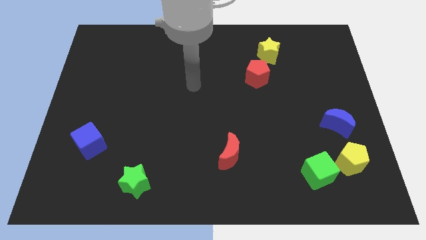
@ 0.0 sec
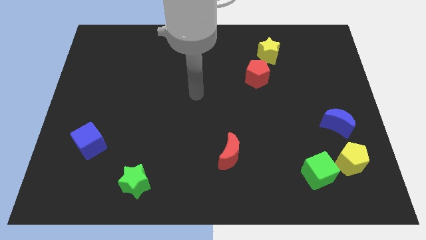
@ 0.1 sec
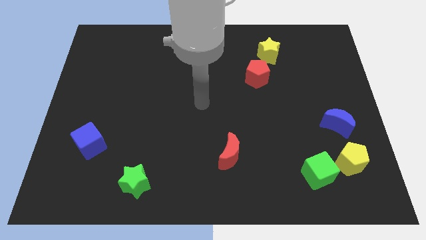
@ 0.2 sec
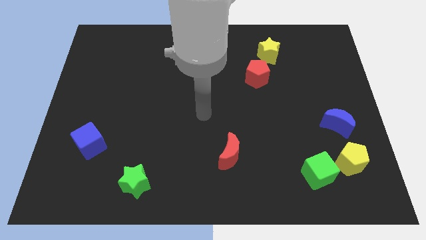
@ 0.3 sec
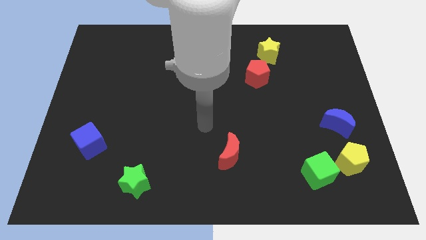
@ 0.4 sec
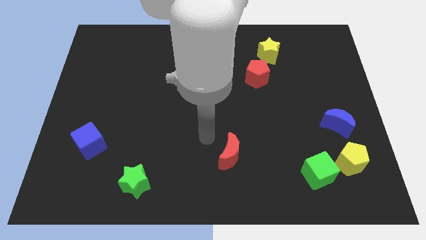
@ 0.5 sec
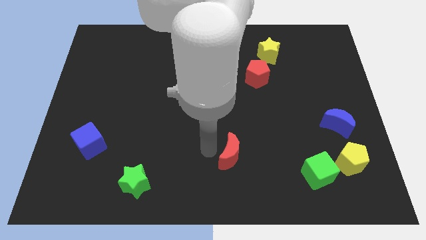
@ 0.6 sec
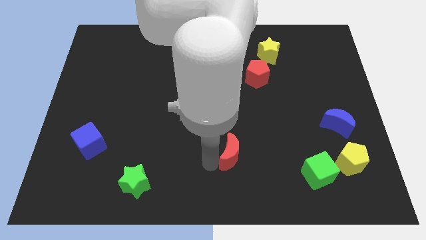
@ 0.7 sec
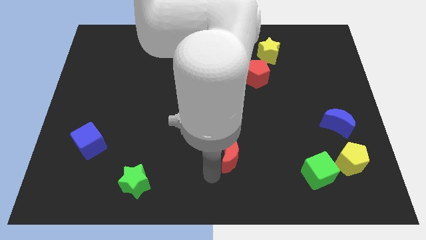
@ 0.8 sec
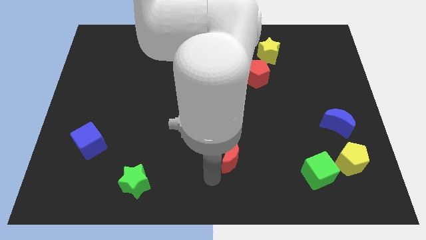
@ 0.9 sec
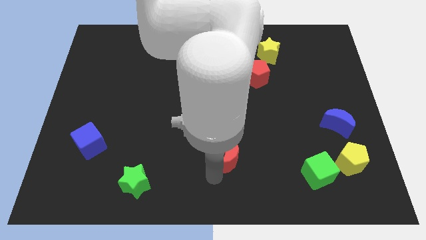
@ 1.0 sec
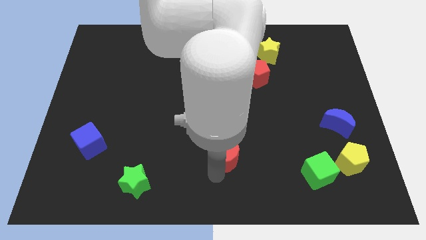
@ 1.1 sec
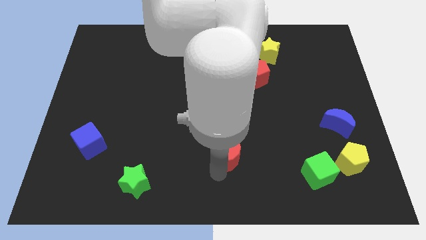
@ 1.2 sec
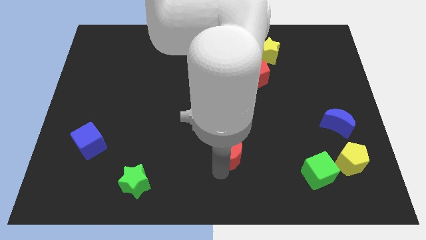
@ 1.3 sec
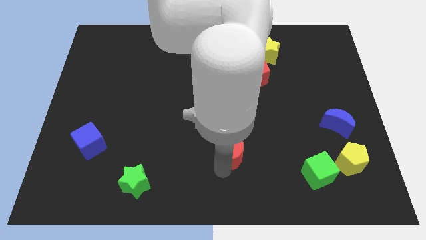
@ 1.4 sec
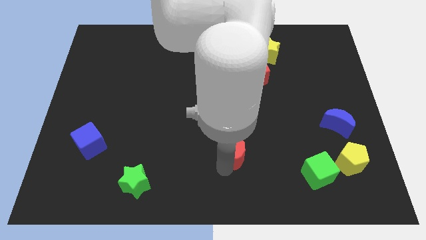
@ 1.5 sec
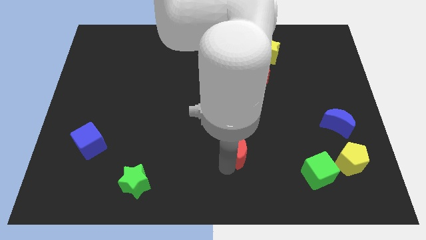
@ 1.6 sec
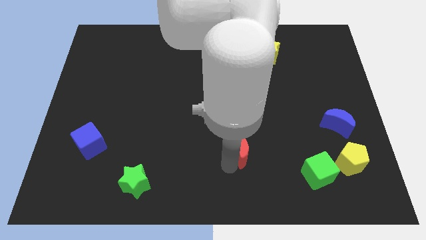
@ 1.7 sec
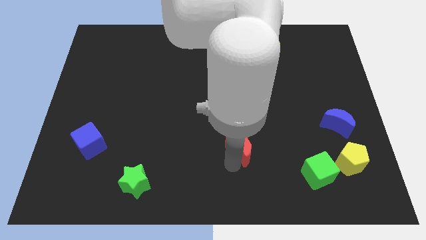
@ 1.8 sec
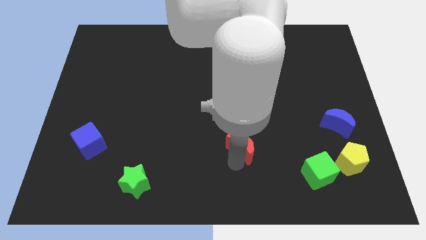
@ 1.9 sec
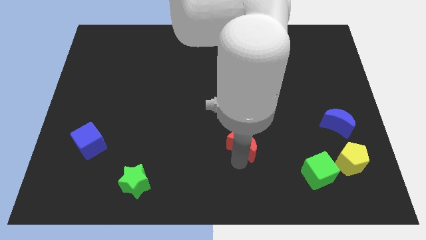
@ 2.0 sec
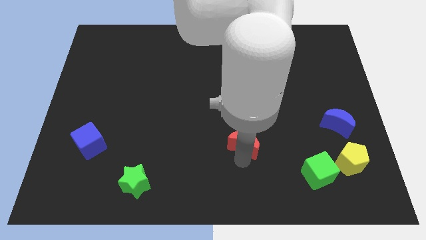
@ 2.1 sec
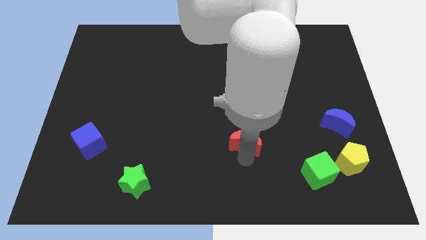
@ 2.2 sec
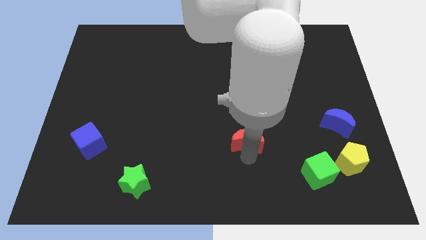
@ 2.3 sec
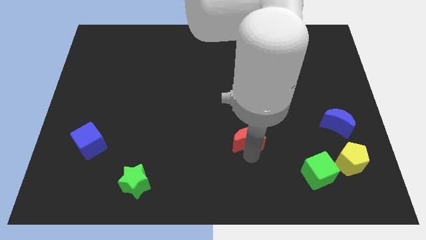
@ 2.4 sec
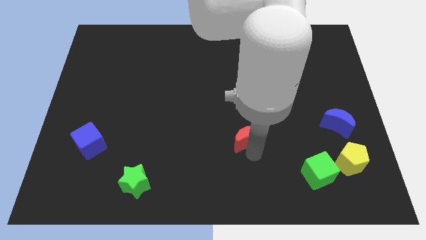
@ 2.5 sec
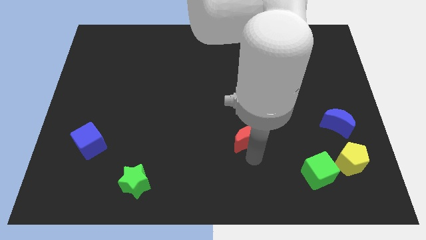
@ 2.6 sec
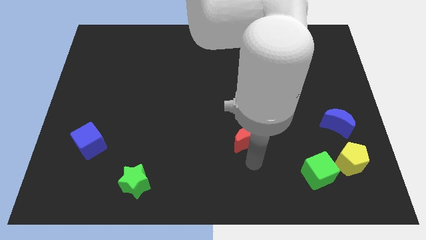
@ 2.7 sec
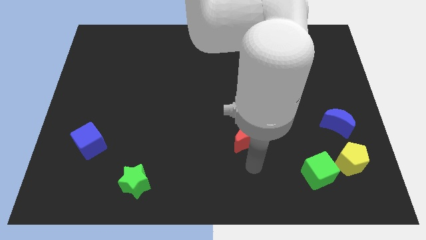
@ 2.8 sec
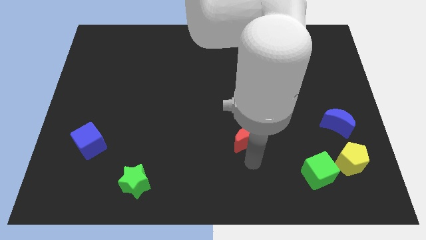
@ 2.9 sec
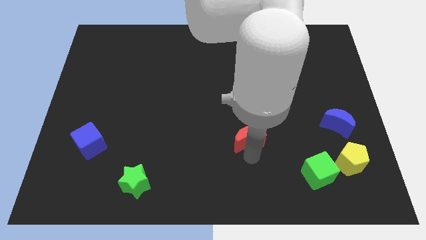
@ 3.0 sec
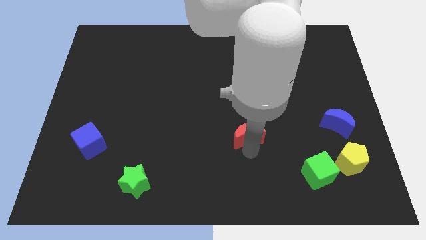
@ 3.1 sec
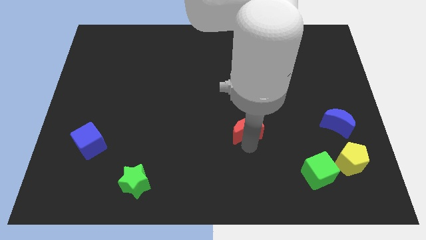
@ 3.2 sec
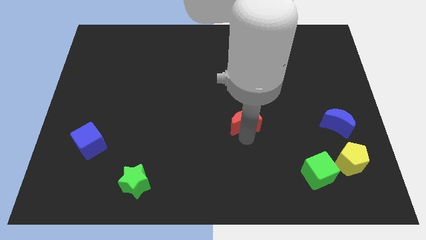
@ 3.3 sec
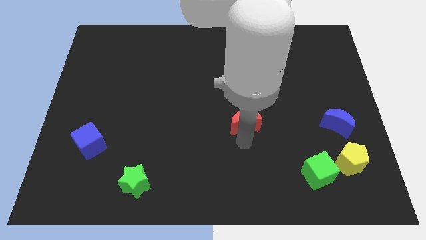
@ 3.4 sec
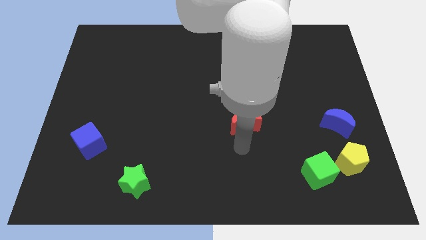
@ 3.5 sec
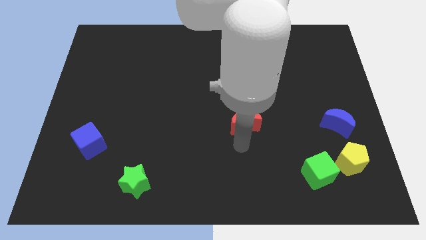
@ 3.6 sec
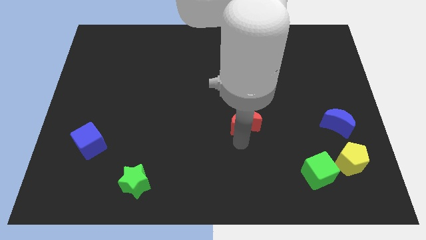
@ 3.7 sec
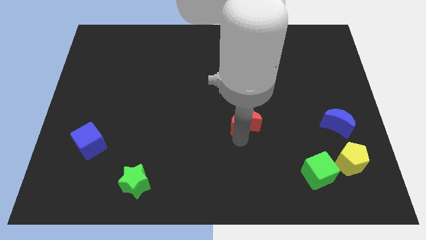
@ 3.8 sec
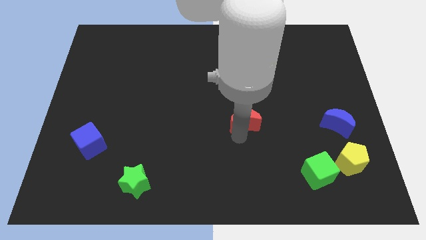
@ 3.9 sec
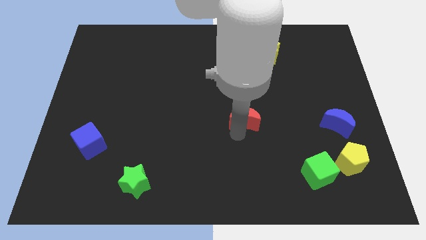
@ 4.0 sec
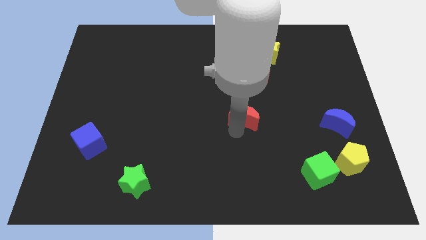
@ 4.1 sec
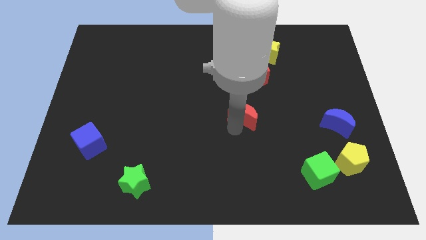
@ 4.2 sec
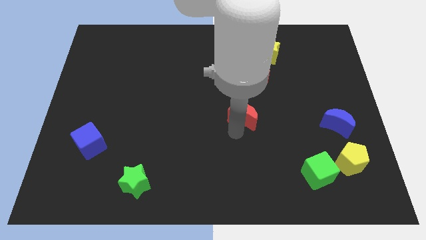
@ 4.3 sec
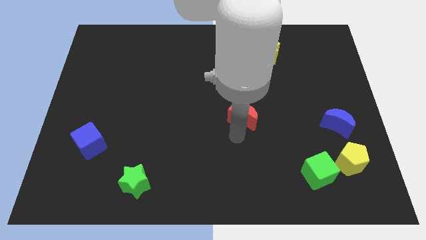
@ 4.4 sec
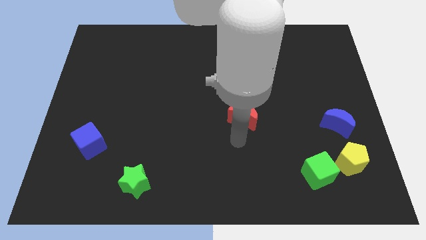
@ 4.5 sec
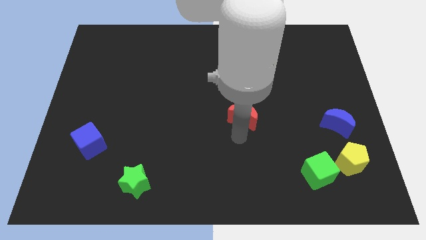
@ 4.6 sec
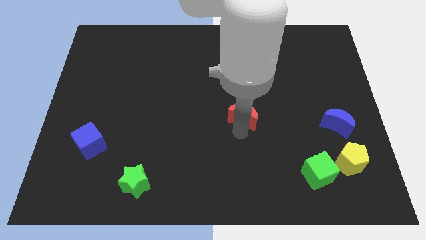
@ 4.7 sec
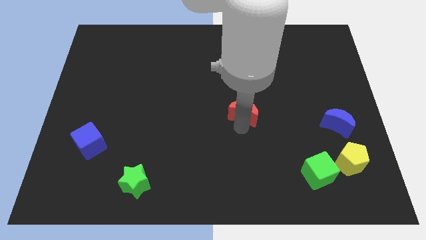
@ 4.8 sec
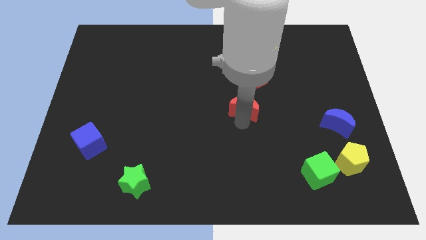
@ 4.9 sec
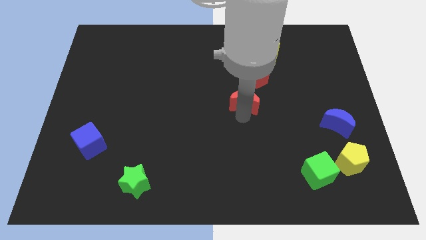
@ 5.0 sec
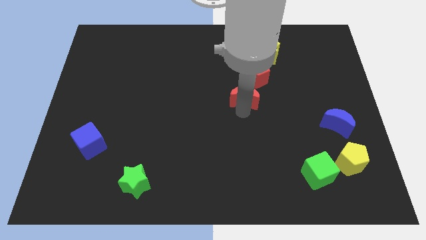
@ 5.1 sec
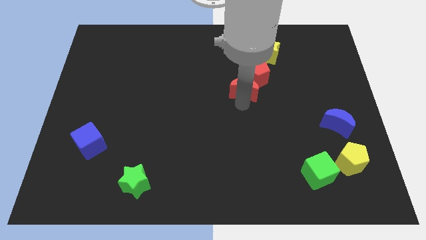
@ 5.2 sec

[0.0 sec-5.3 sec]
push the red moon to the red pentagon

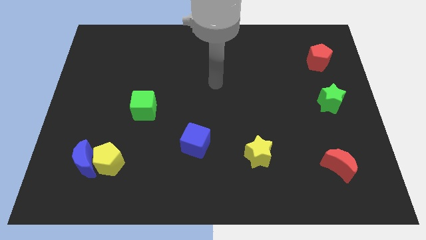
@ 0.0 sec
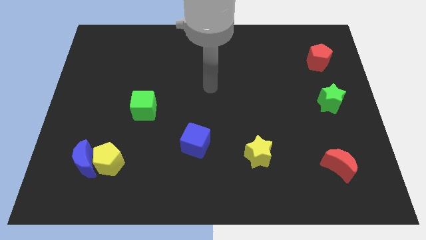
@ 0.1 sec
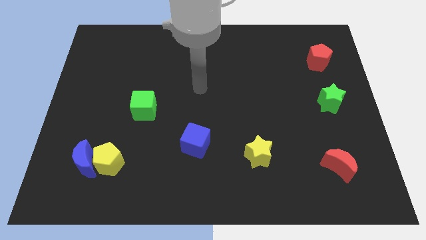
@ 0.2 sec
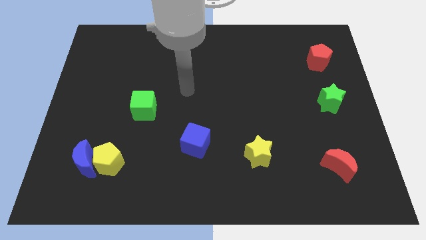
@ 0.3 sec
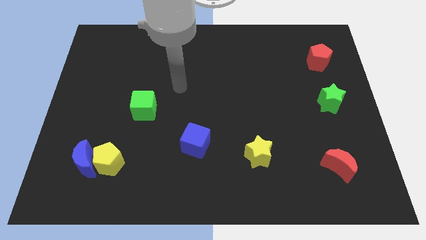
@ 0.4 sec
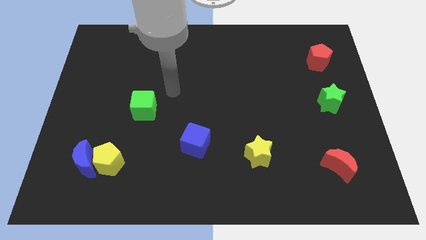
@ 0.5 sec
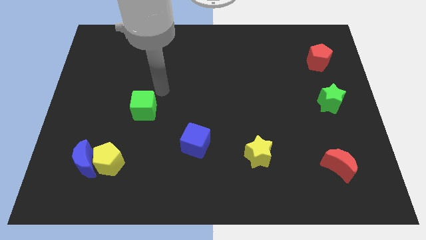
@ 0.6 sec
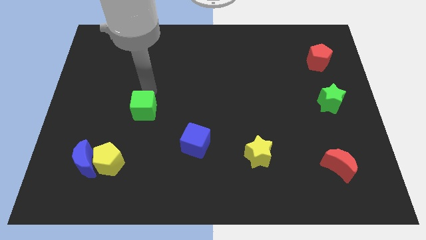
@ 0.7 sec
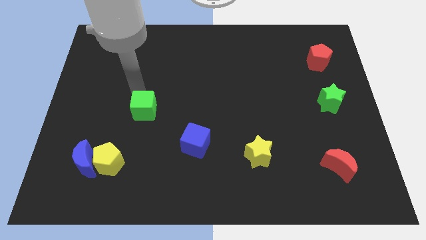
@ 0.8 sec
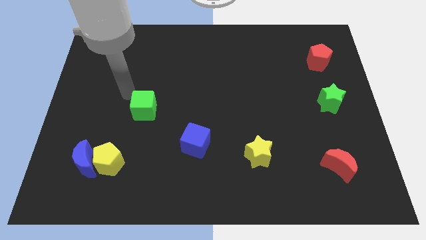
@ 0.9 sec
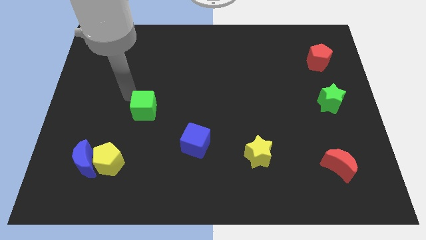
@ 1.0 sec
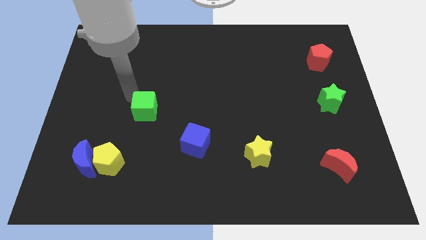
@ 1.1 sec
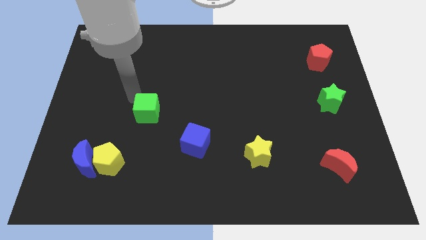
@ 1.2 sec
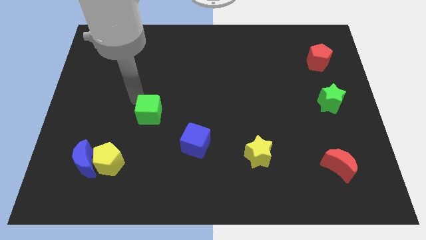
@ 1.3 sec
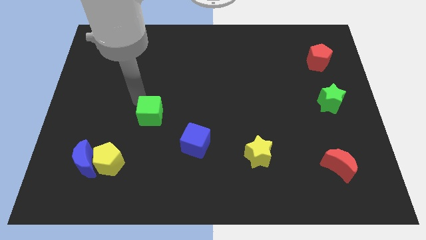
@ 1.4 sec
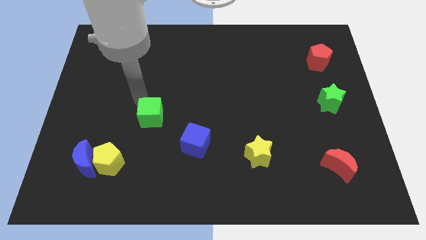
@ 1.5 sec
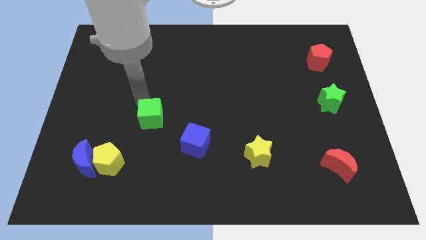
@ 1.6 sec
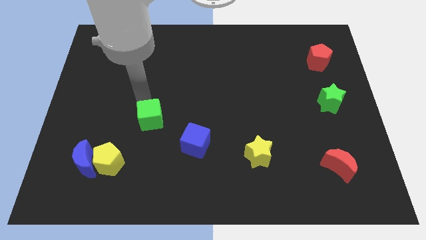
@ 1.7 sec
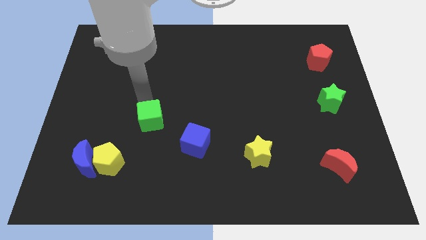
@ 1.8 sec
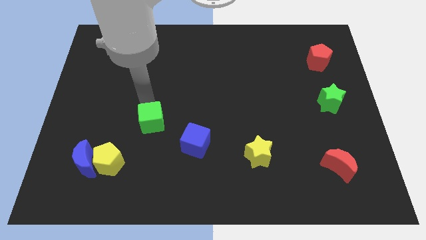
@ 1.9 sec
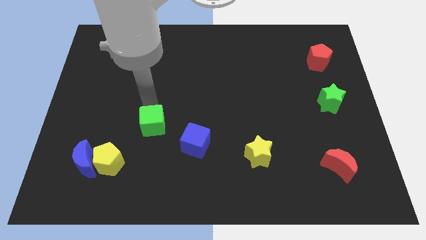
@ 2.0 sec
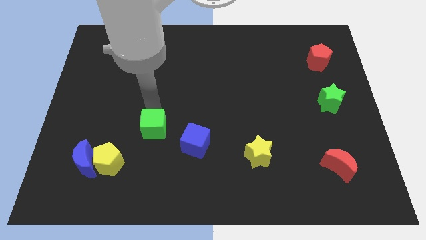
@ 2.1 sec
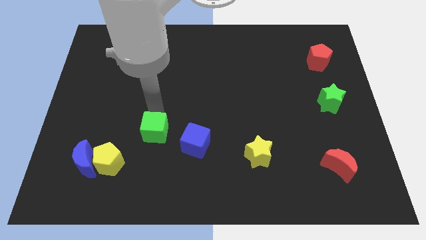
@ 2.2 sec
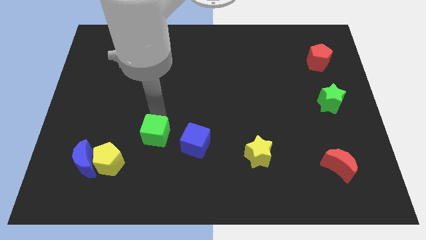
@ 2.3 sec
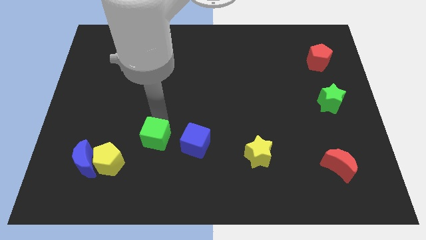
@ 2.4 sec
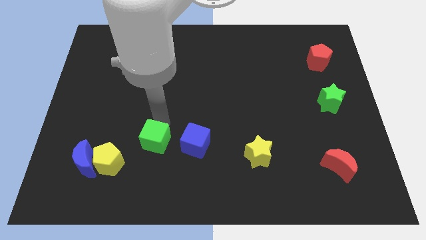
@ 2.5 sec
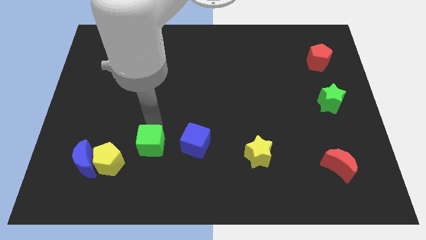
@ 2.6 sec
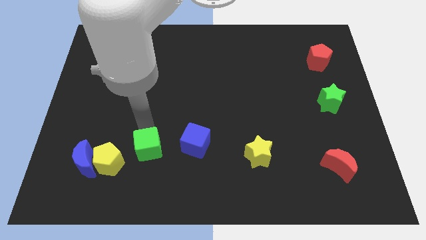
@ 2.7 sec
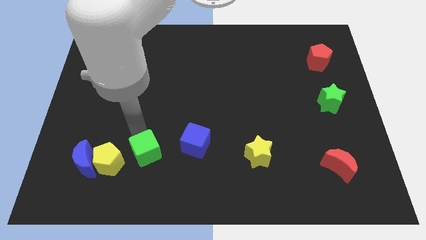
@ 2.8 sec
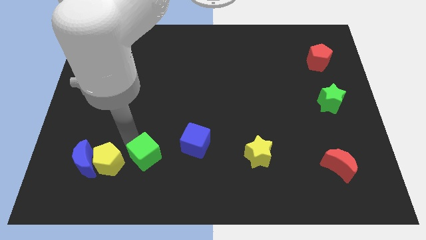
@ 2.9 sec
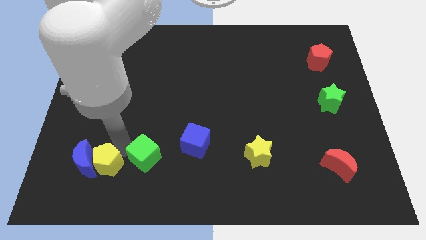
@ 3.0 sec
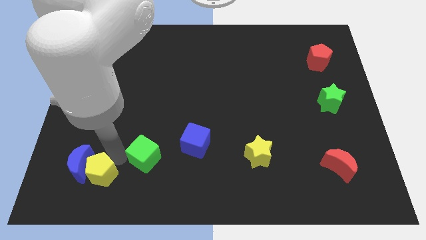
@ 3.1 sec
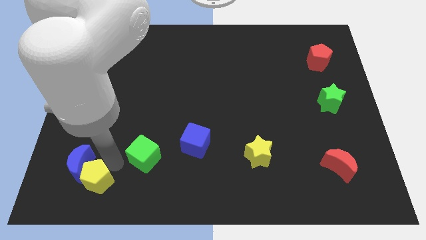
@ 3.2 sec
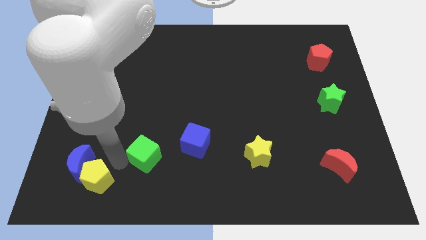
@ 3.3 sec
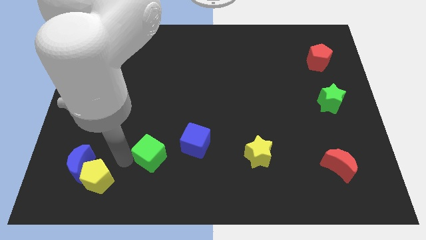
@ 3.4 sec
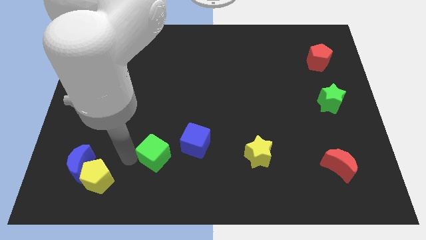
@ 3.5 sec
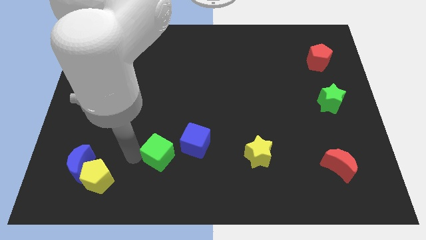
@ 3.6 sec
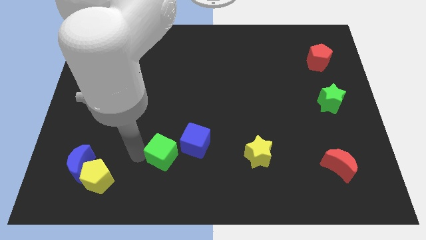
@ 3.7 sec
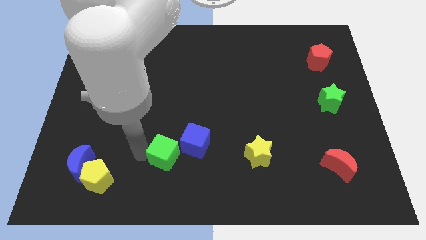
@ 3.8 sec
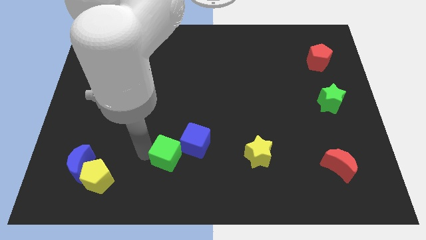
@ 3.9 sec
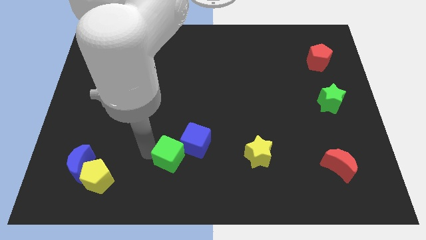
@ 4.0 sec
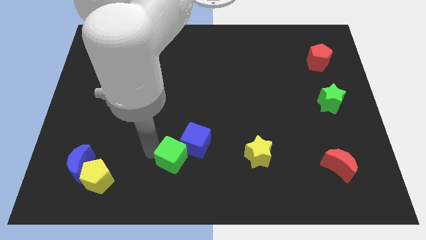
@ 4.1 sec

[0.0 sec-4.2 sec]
push the green cube towards the blue cube
